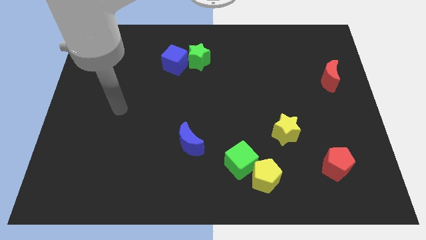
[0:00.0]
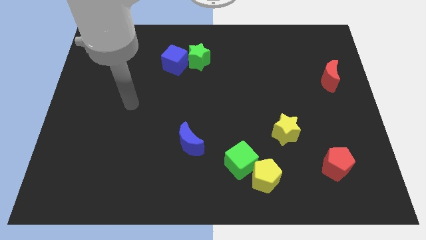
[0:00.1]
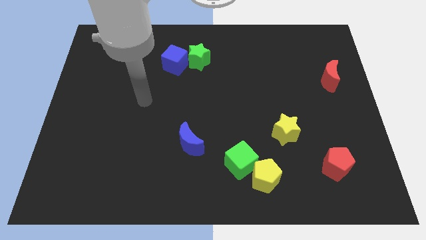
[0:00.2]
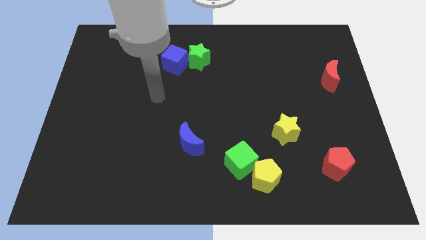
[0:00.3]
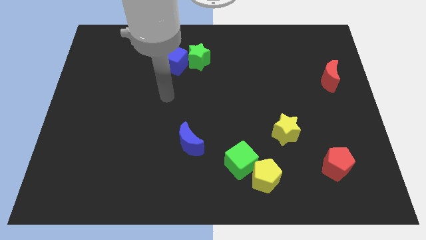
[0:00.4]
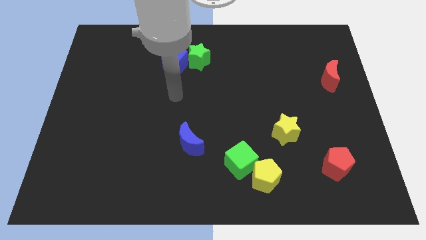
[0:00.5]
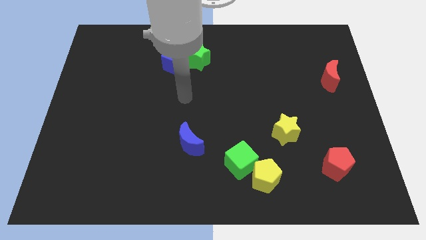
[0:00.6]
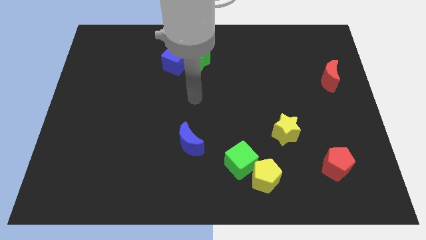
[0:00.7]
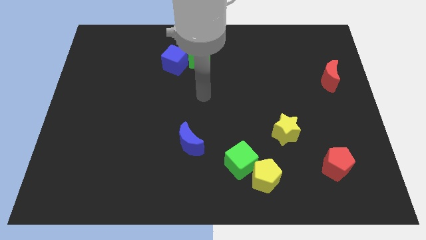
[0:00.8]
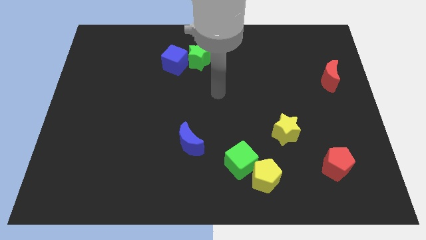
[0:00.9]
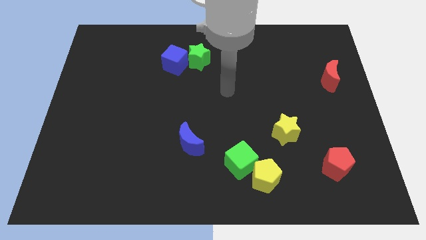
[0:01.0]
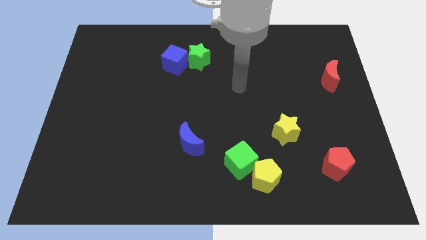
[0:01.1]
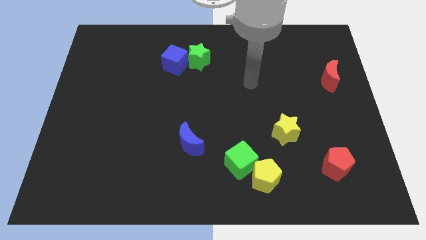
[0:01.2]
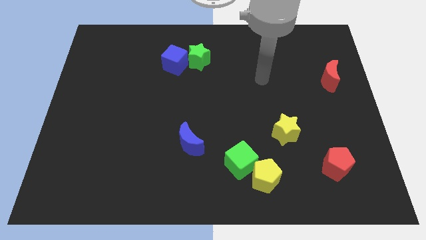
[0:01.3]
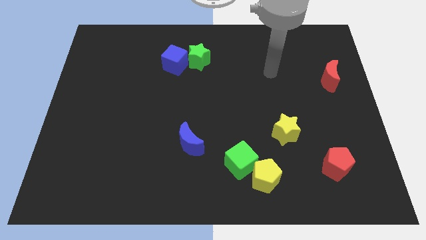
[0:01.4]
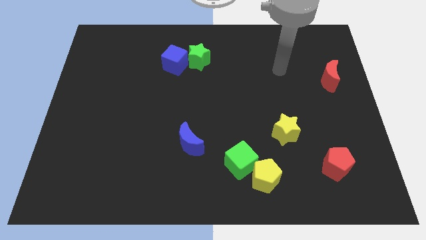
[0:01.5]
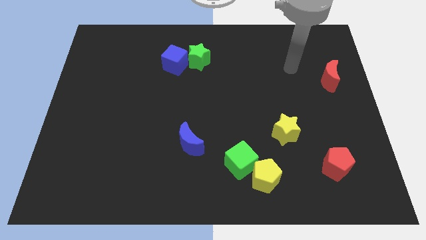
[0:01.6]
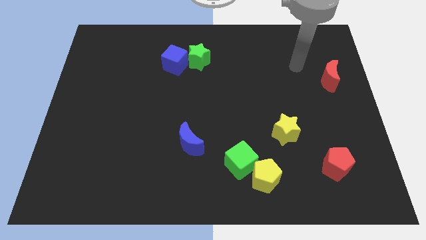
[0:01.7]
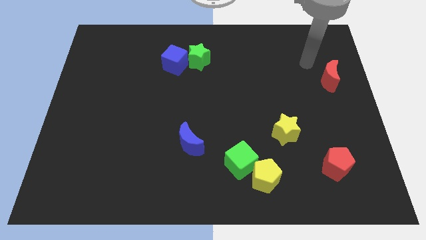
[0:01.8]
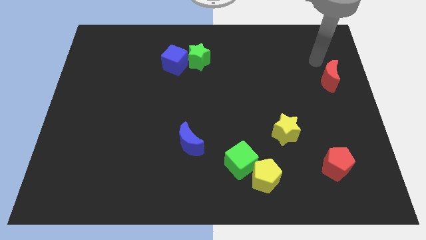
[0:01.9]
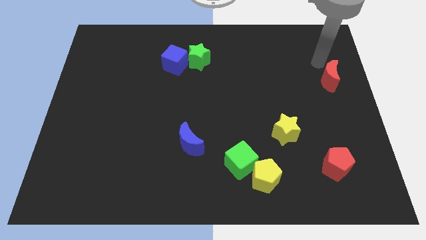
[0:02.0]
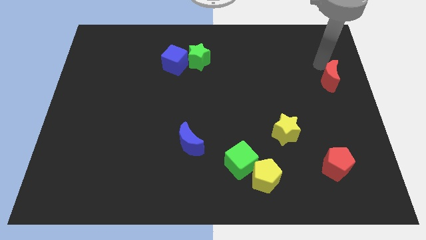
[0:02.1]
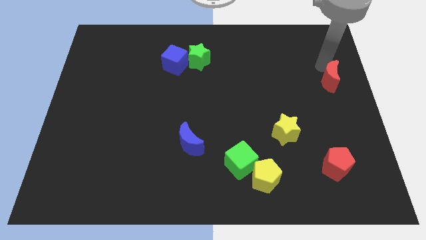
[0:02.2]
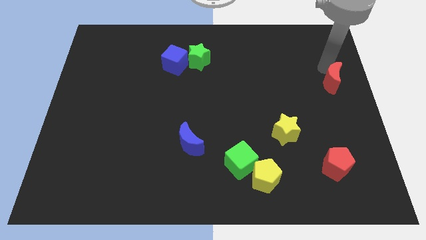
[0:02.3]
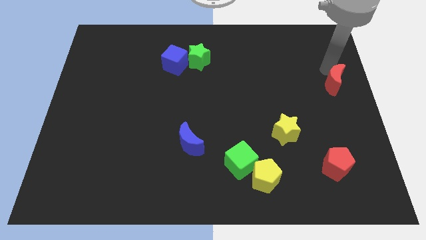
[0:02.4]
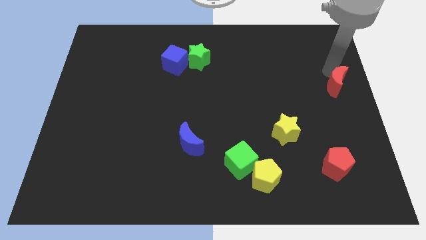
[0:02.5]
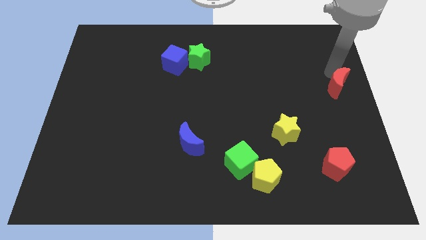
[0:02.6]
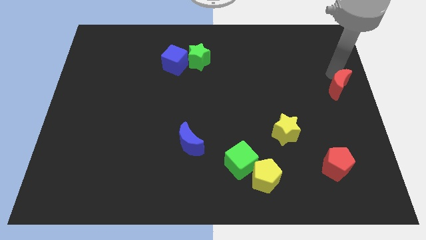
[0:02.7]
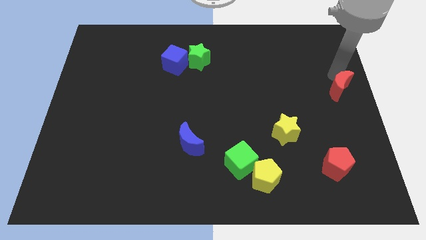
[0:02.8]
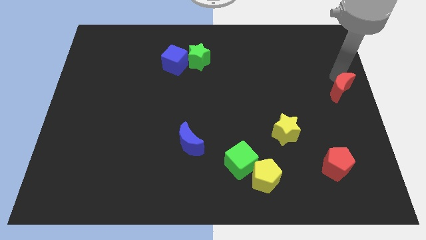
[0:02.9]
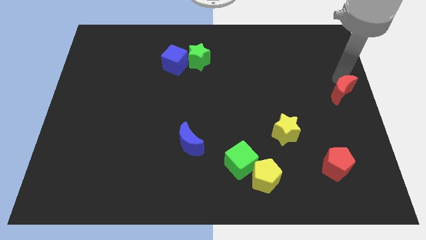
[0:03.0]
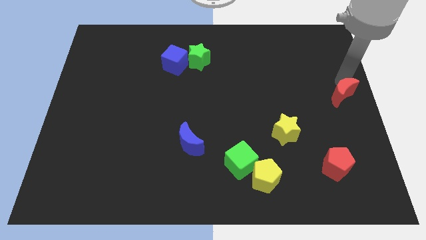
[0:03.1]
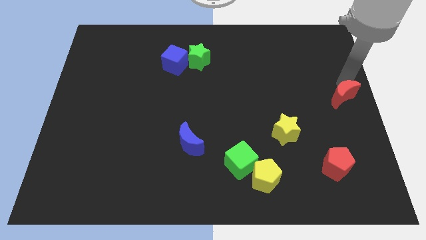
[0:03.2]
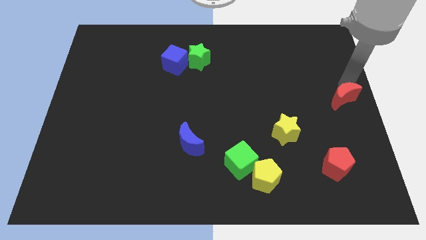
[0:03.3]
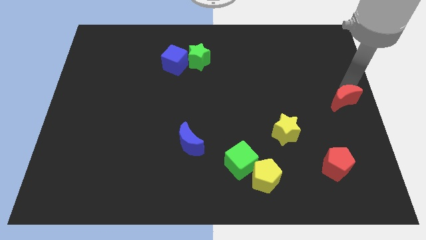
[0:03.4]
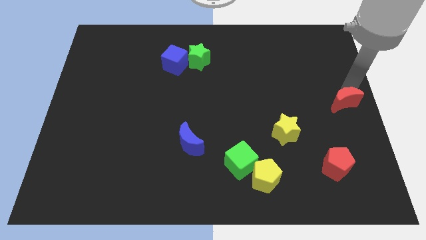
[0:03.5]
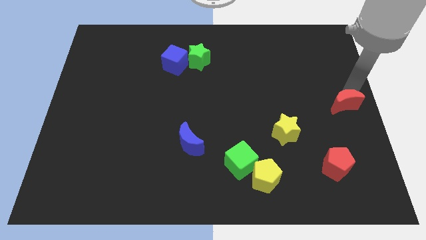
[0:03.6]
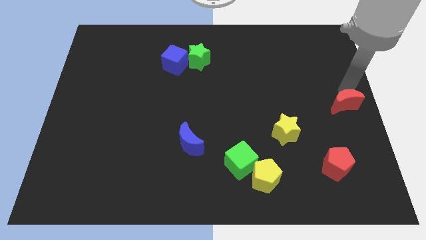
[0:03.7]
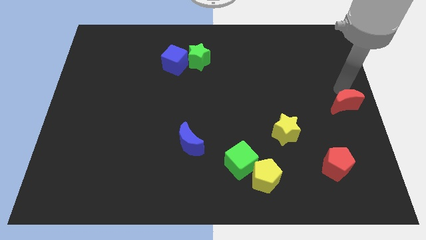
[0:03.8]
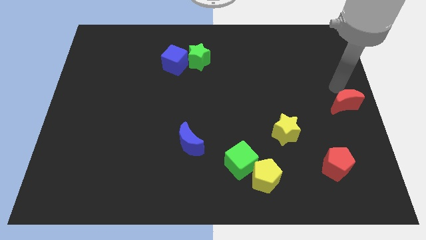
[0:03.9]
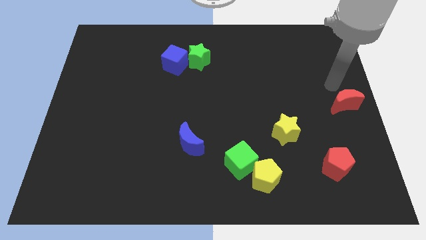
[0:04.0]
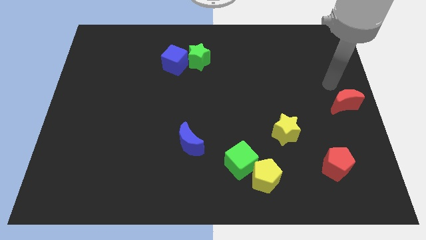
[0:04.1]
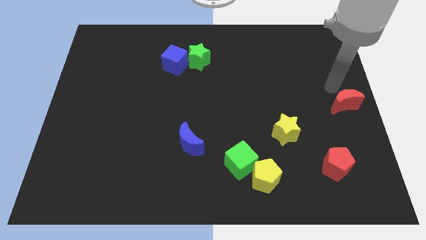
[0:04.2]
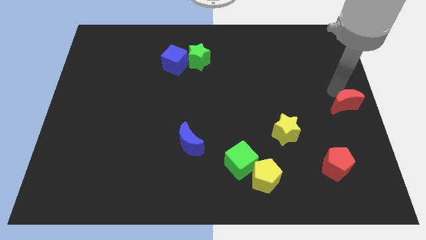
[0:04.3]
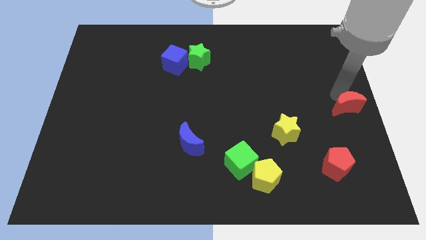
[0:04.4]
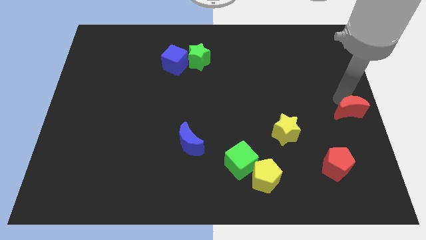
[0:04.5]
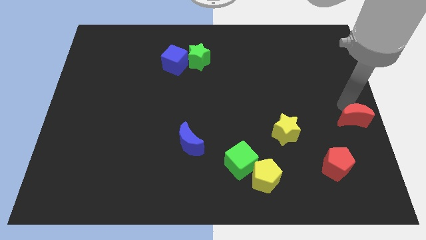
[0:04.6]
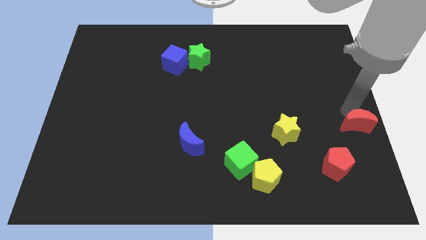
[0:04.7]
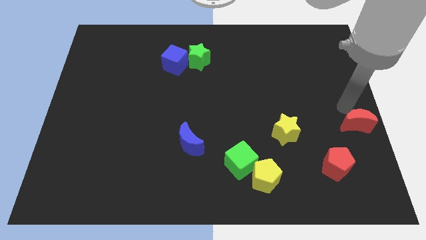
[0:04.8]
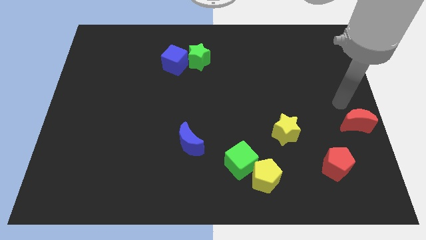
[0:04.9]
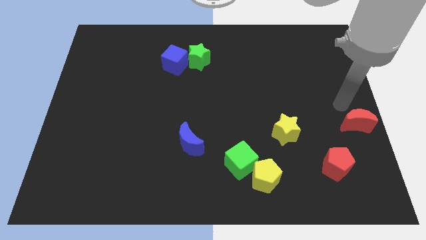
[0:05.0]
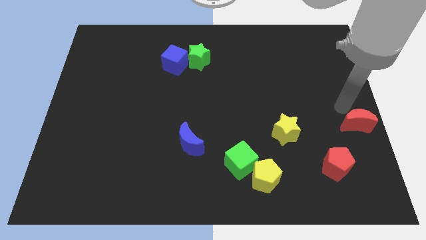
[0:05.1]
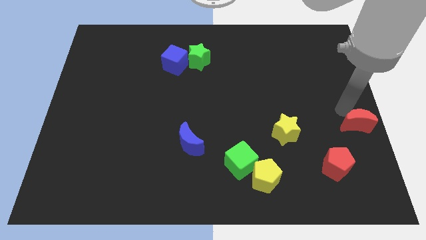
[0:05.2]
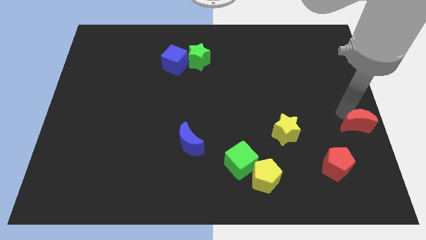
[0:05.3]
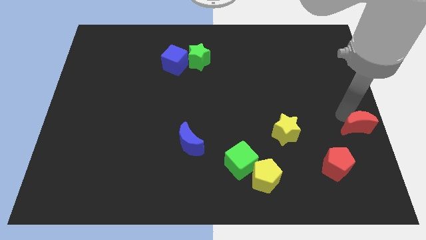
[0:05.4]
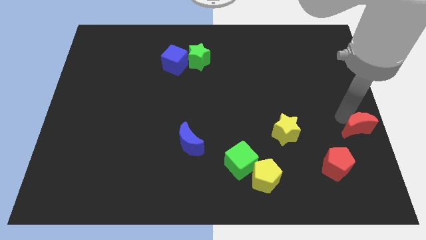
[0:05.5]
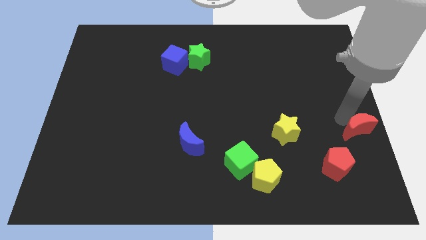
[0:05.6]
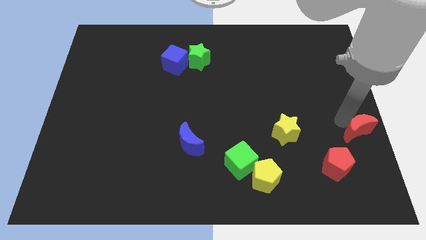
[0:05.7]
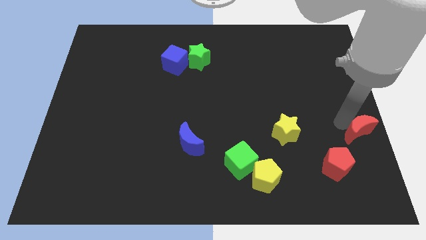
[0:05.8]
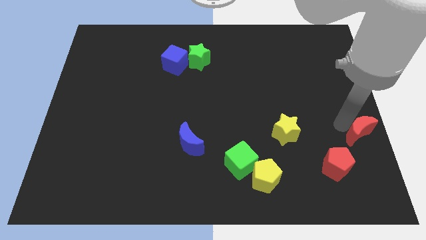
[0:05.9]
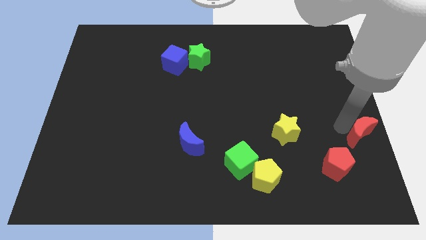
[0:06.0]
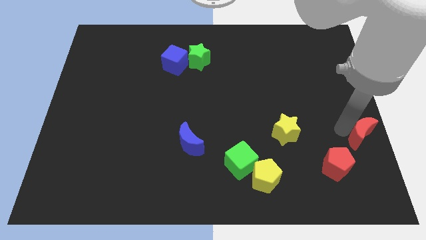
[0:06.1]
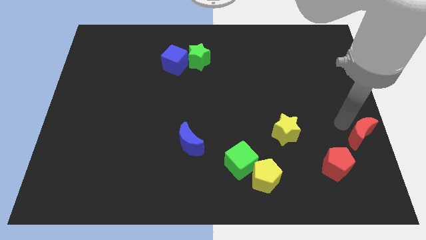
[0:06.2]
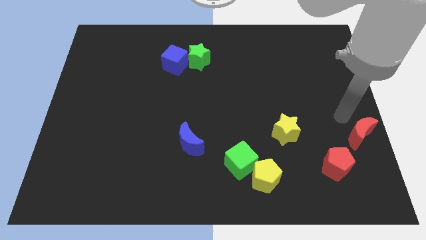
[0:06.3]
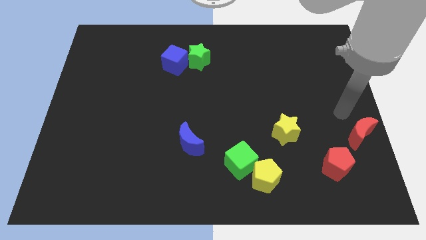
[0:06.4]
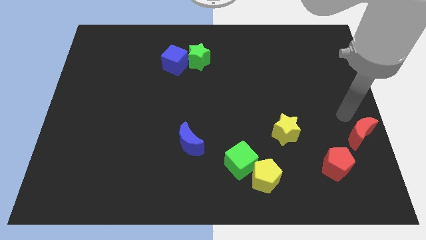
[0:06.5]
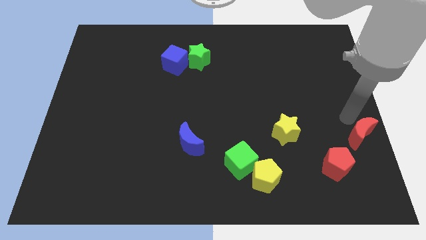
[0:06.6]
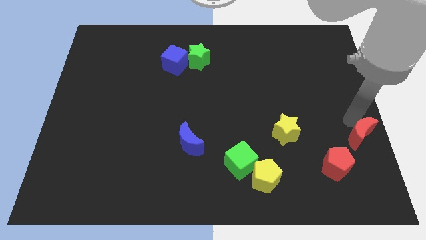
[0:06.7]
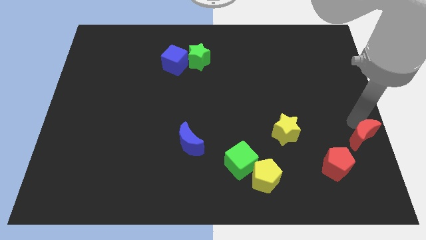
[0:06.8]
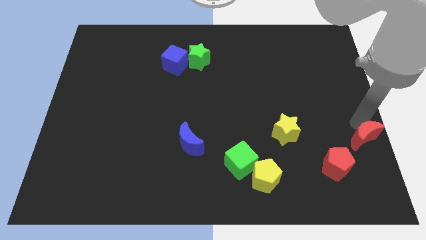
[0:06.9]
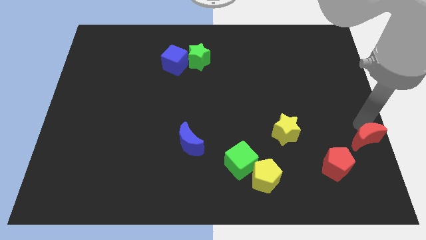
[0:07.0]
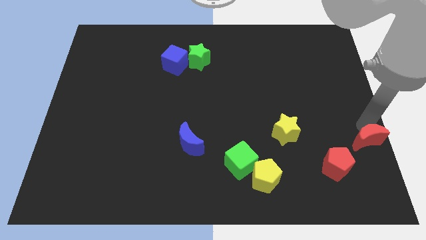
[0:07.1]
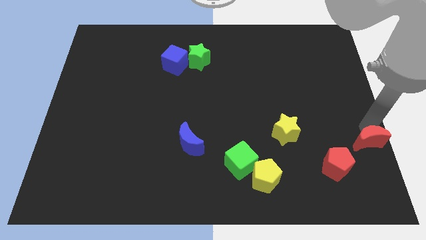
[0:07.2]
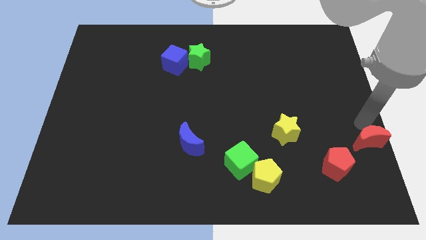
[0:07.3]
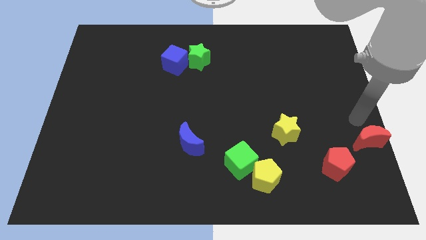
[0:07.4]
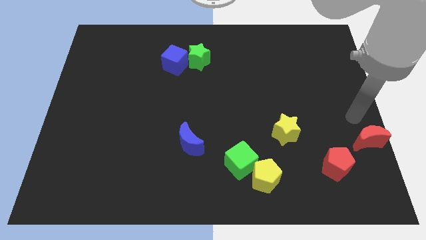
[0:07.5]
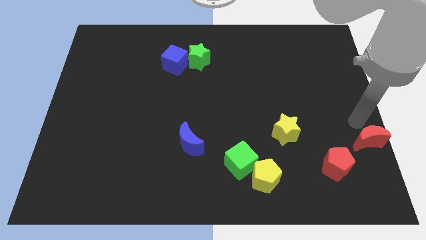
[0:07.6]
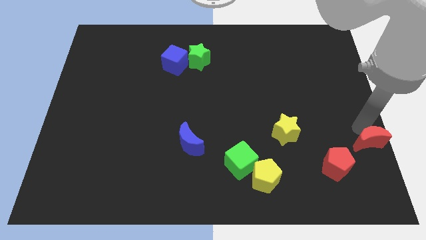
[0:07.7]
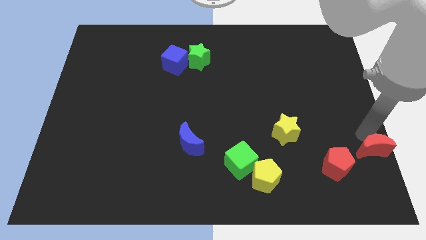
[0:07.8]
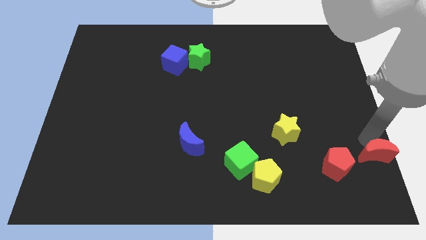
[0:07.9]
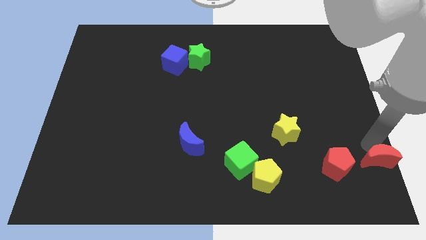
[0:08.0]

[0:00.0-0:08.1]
push the red moon to the lower right corner
